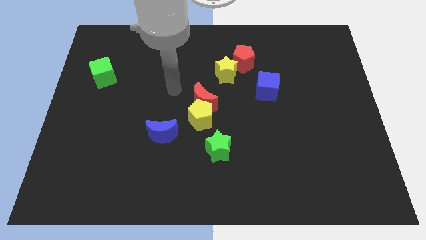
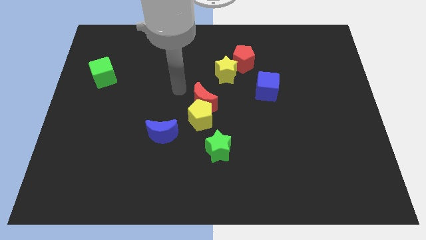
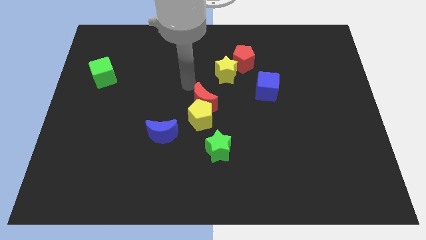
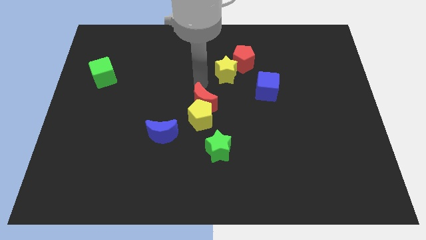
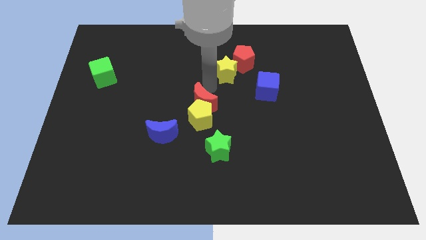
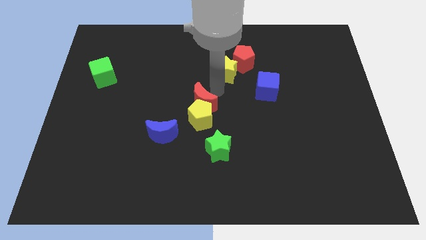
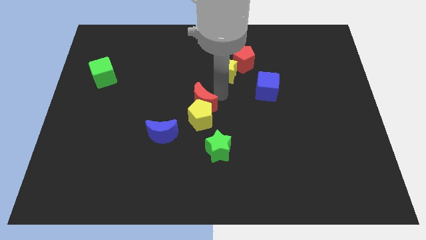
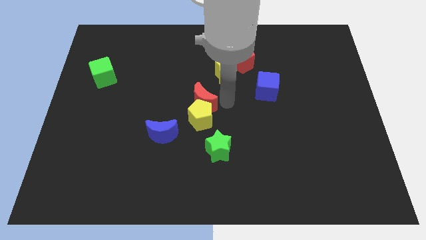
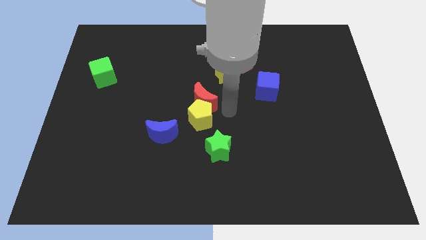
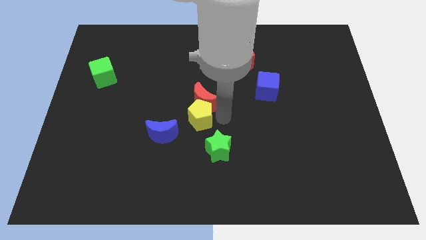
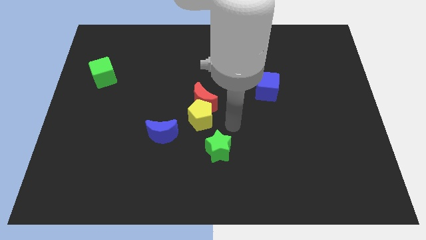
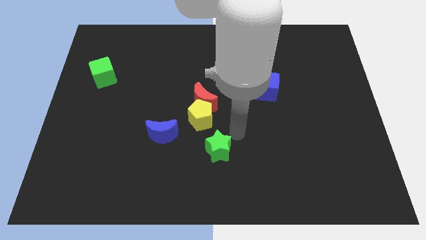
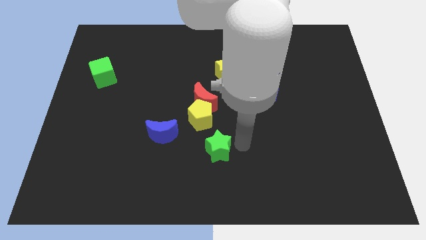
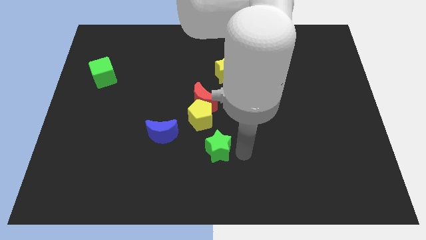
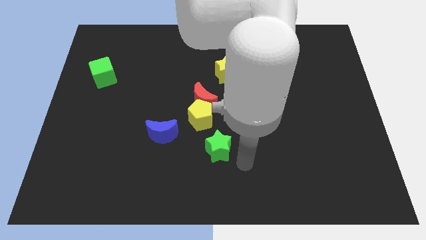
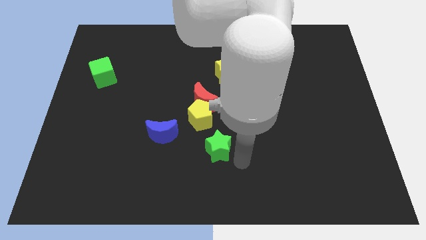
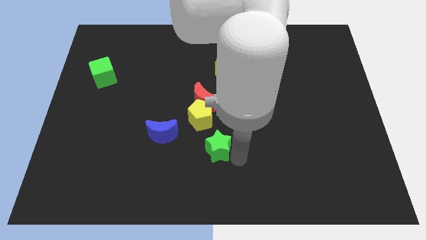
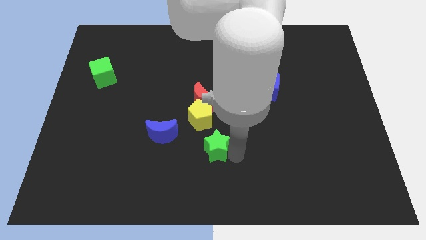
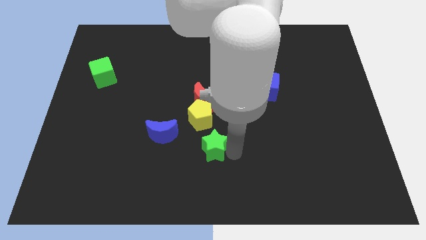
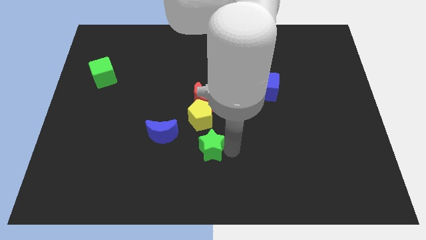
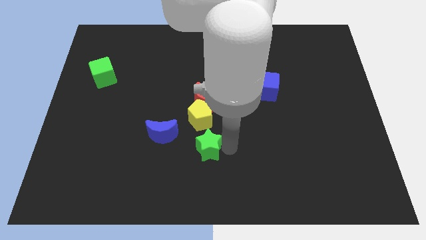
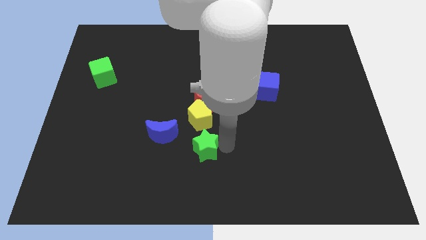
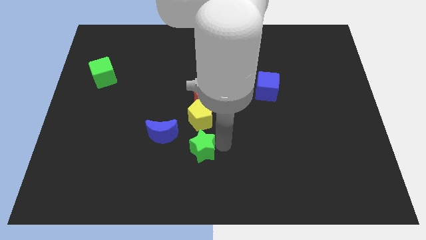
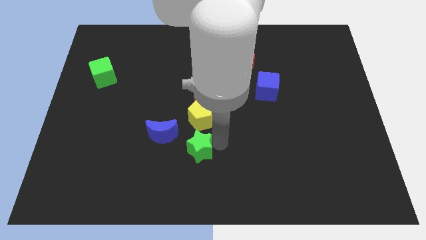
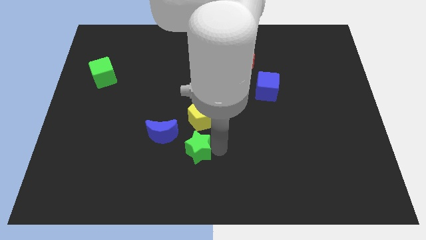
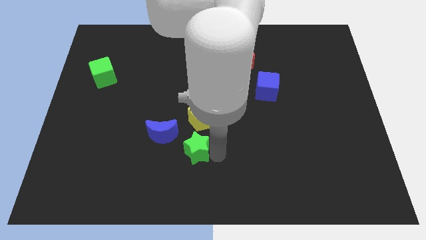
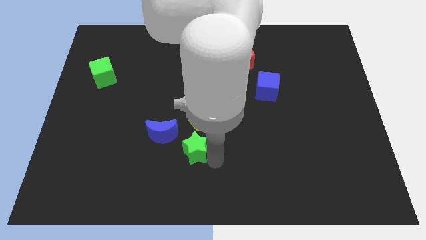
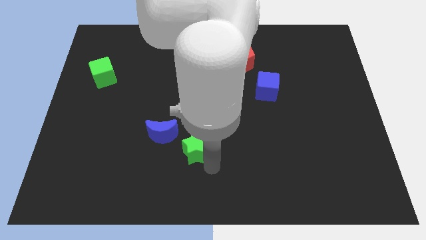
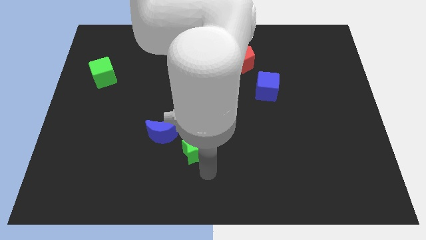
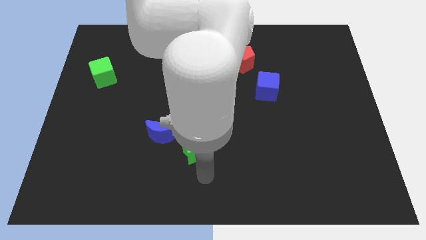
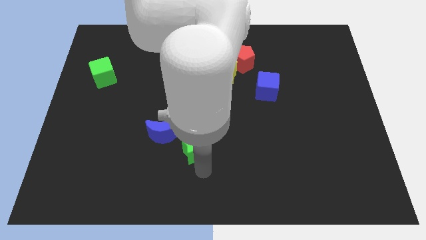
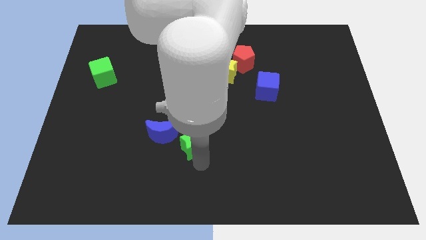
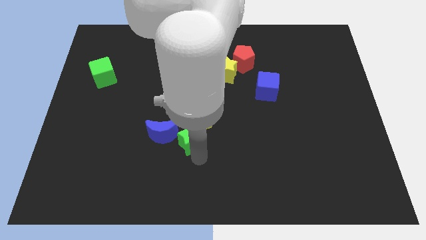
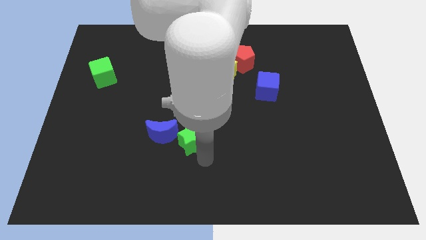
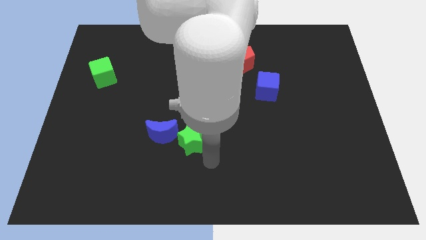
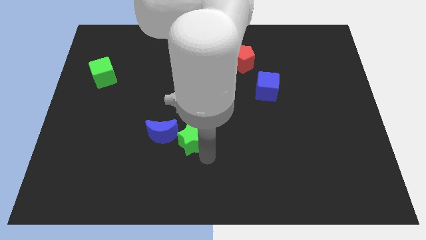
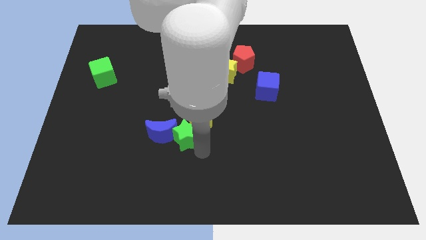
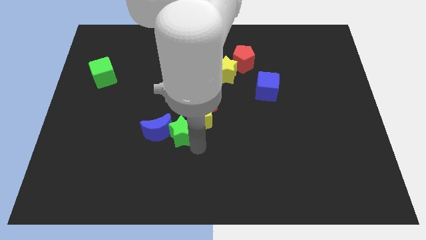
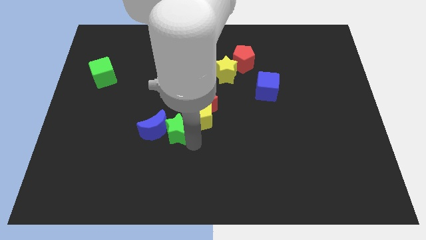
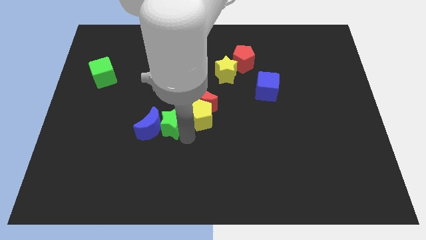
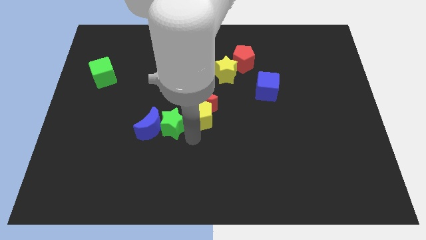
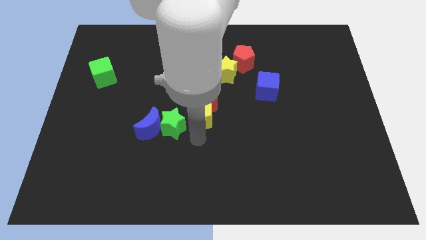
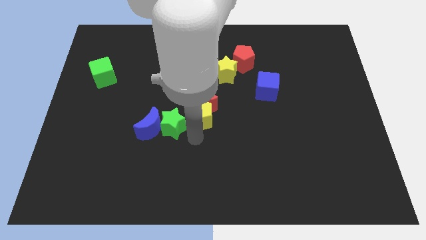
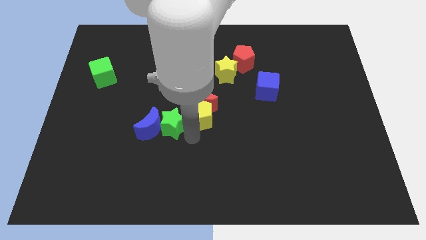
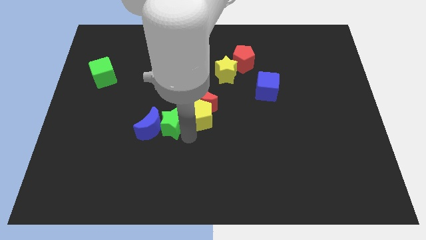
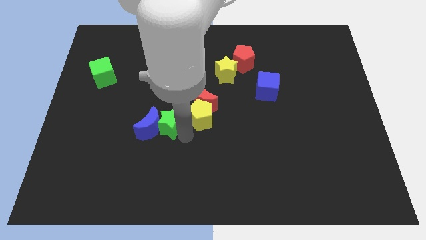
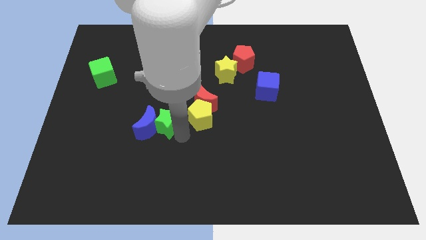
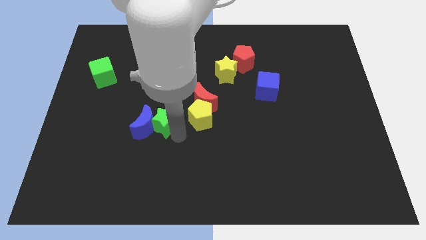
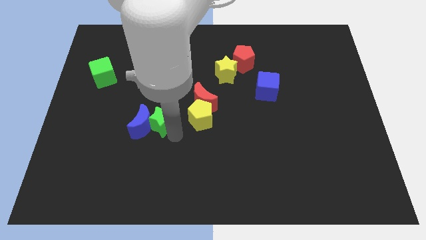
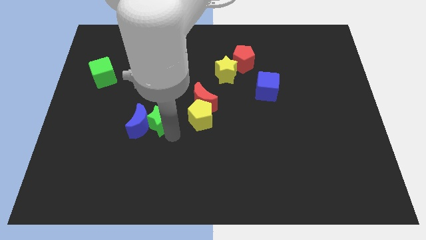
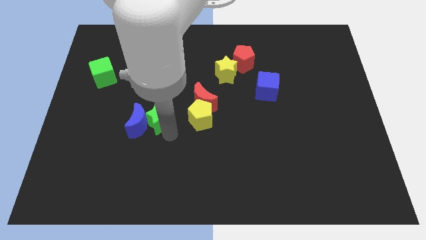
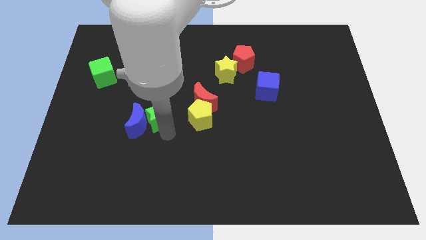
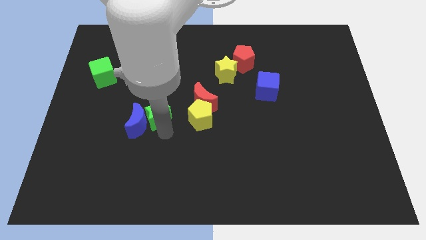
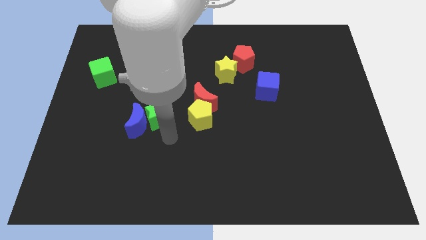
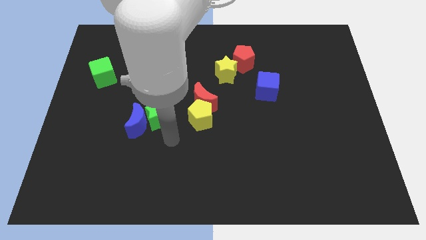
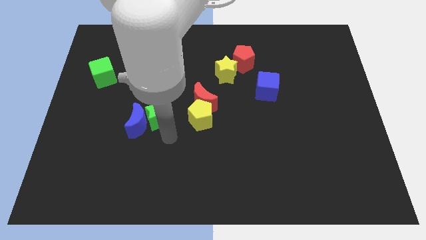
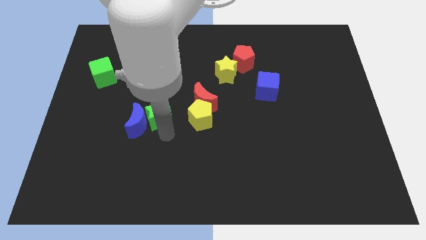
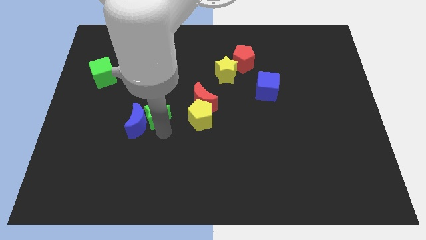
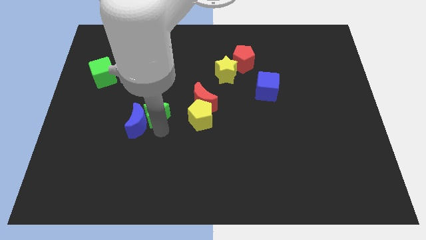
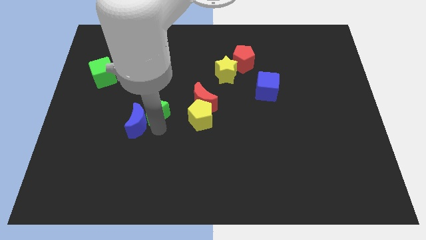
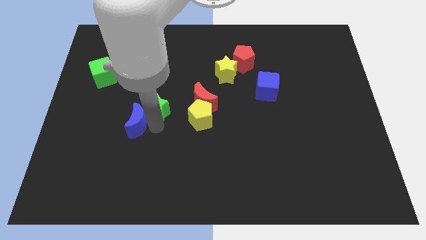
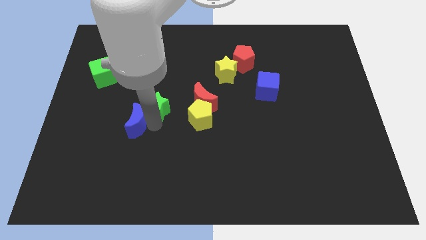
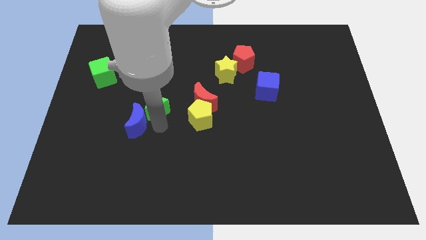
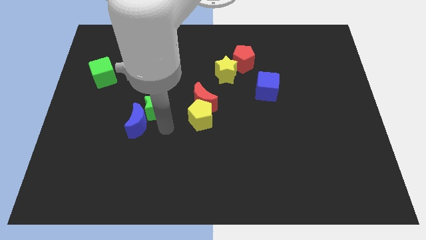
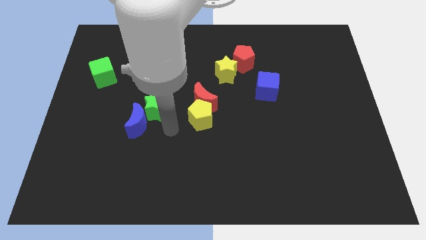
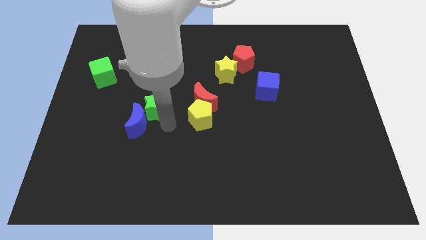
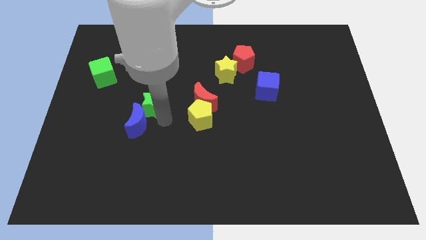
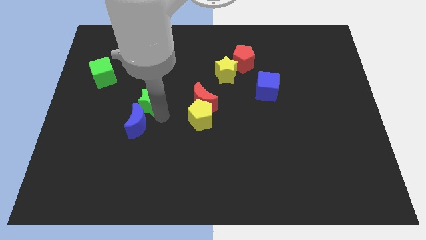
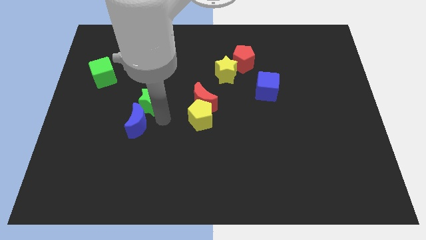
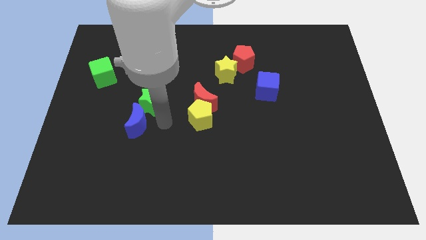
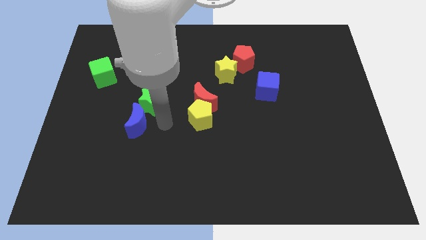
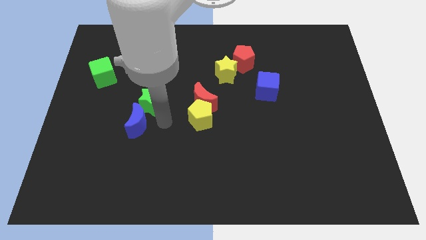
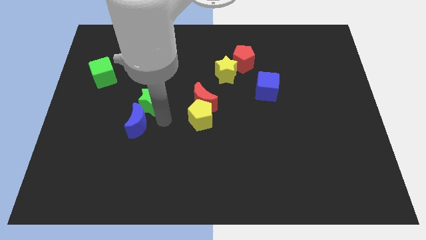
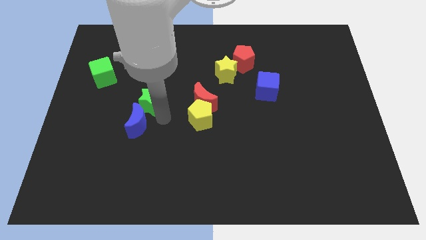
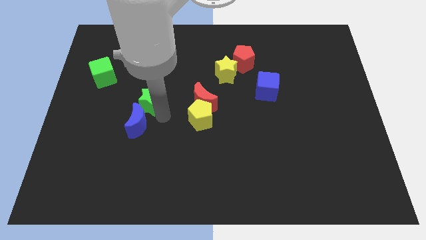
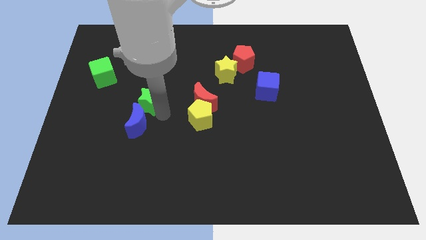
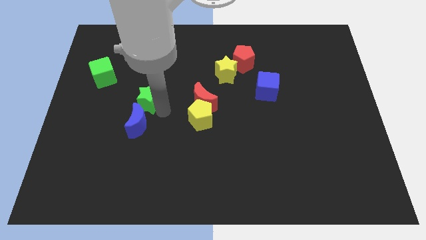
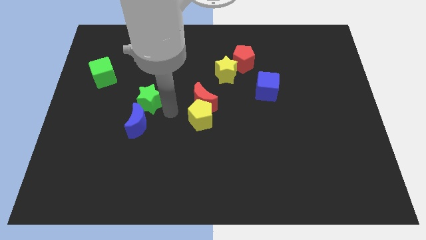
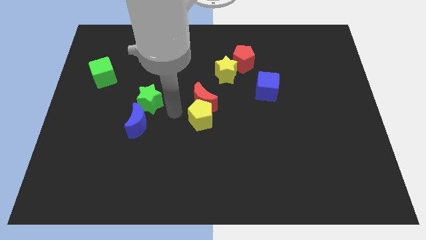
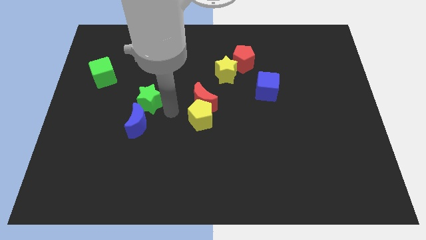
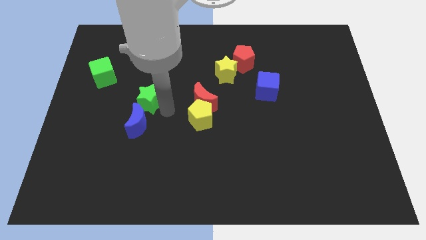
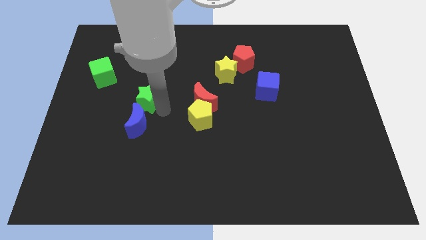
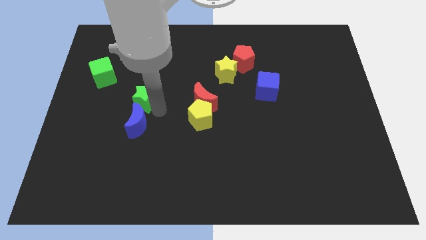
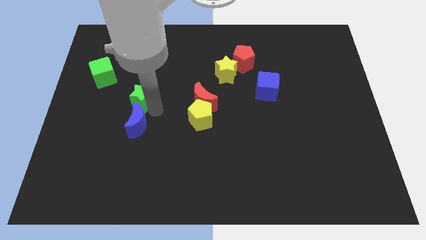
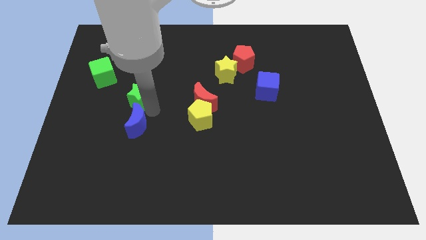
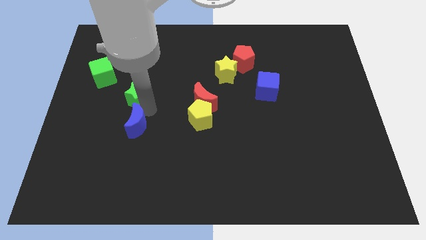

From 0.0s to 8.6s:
move the green star to the bottom right side of the green cube
